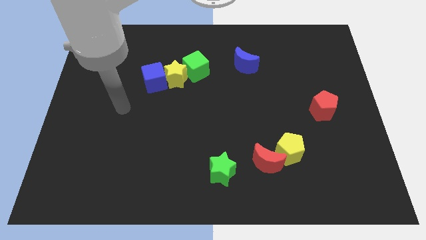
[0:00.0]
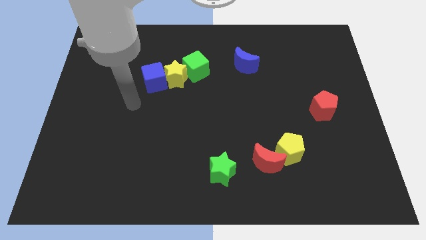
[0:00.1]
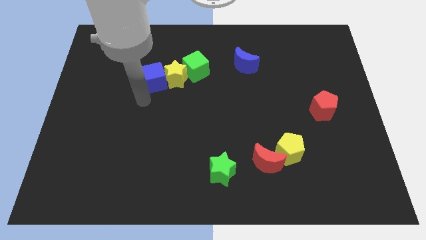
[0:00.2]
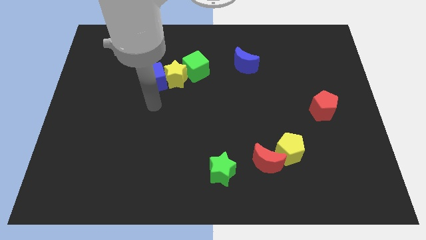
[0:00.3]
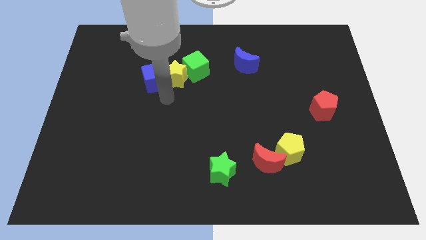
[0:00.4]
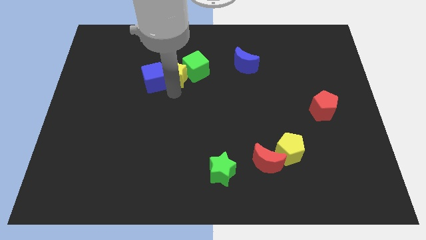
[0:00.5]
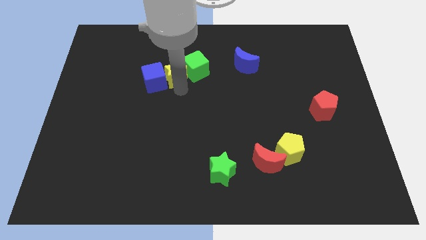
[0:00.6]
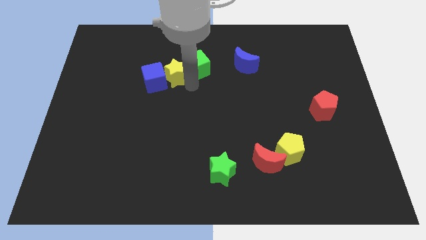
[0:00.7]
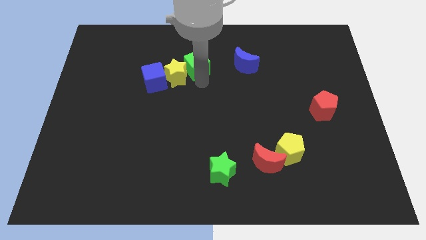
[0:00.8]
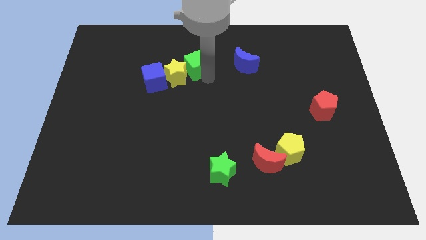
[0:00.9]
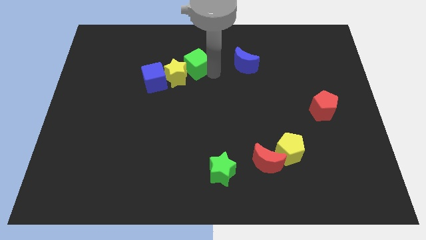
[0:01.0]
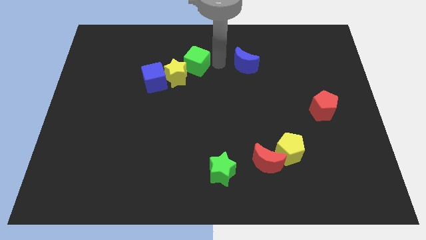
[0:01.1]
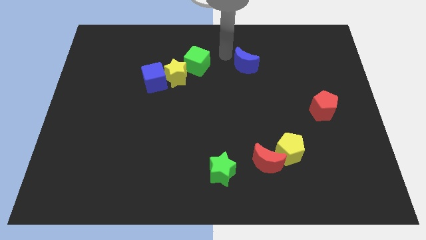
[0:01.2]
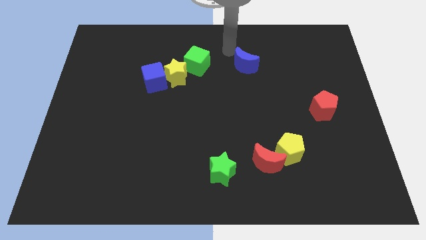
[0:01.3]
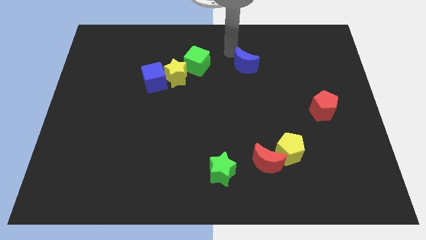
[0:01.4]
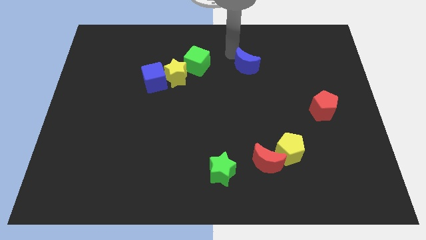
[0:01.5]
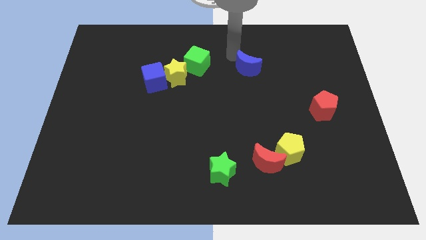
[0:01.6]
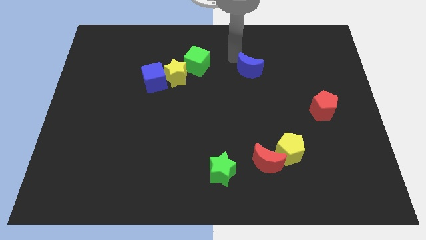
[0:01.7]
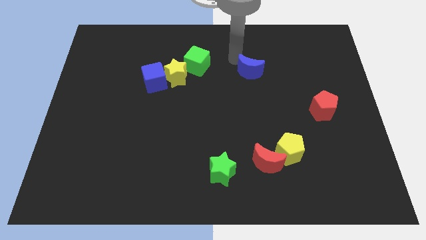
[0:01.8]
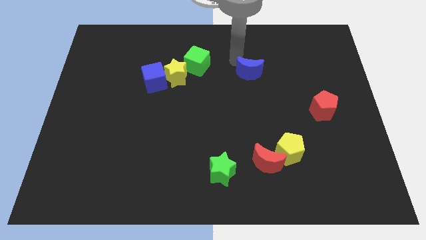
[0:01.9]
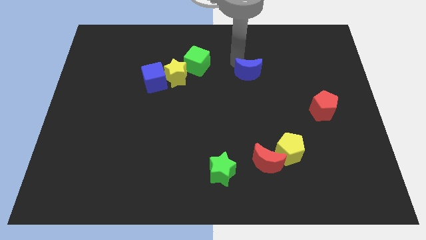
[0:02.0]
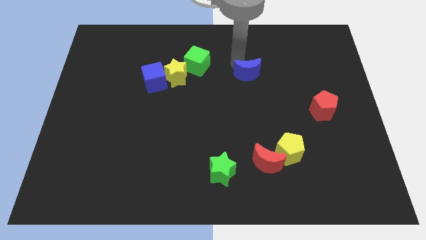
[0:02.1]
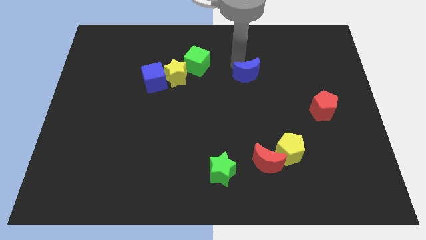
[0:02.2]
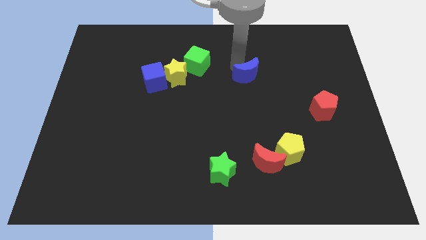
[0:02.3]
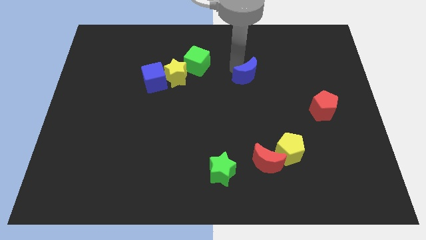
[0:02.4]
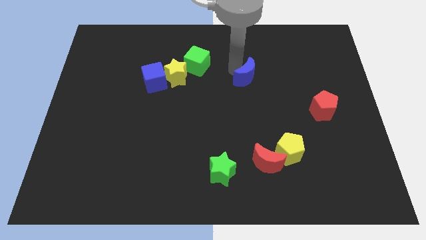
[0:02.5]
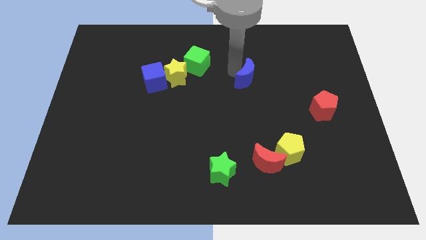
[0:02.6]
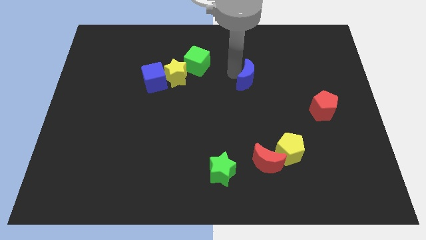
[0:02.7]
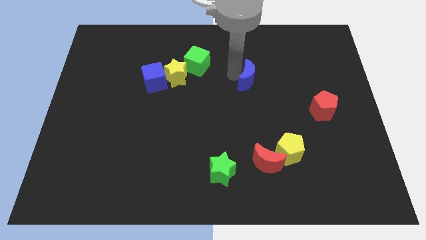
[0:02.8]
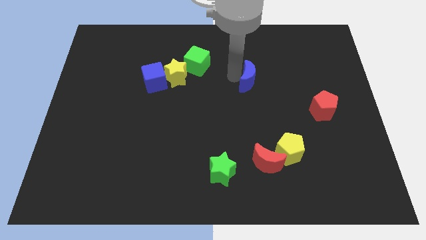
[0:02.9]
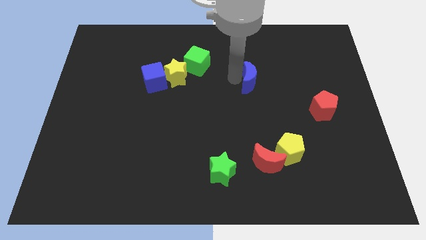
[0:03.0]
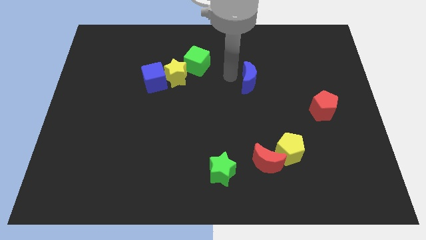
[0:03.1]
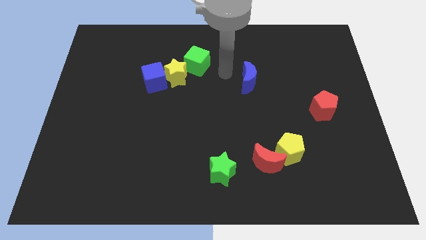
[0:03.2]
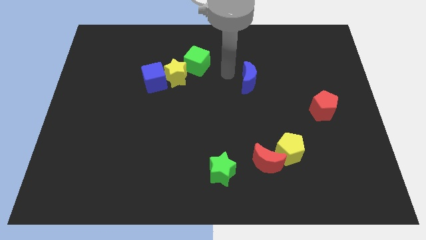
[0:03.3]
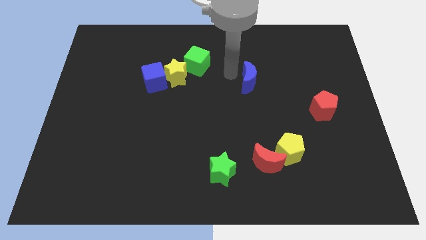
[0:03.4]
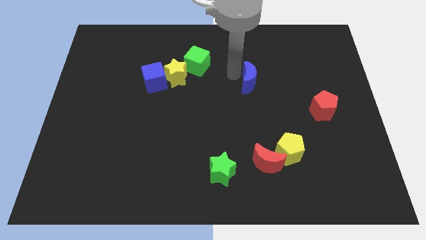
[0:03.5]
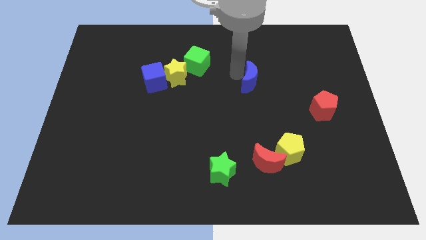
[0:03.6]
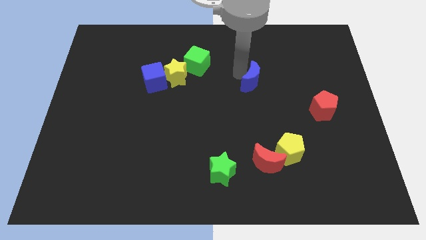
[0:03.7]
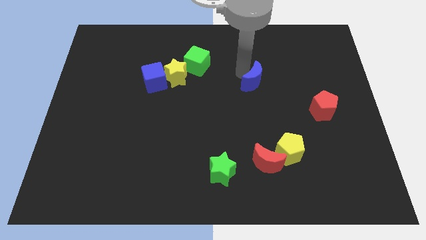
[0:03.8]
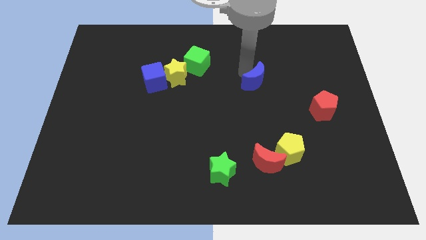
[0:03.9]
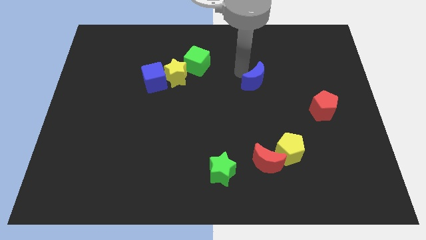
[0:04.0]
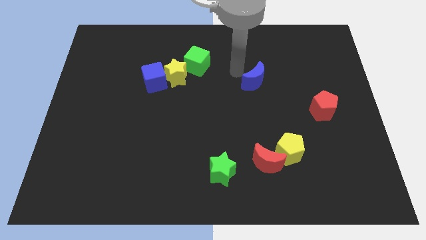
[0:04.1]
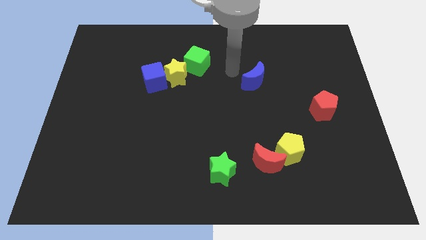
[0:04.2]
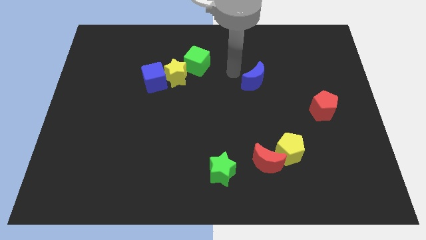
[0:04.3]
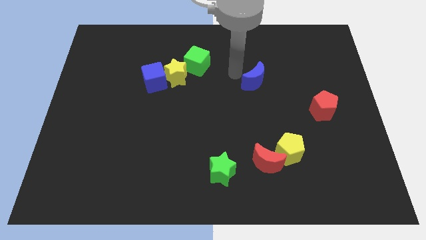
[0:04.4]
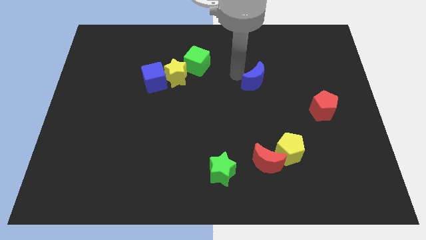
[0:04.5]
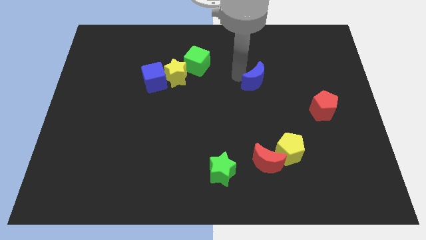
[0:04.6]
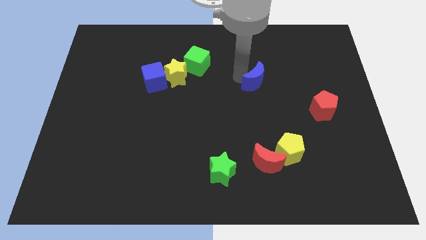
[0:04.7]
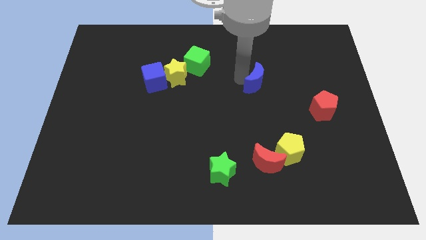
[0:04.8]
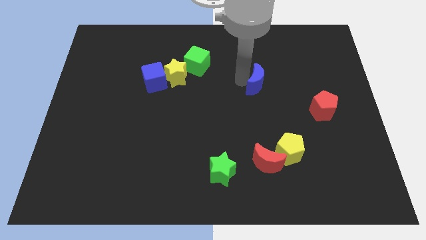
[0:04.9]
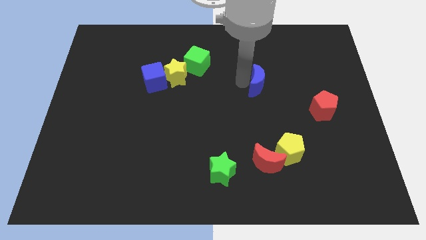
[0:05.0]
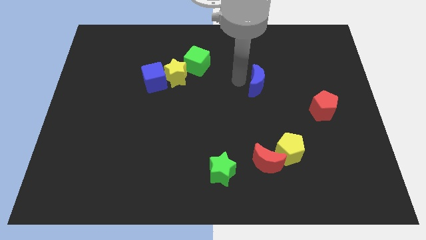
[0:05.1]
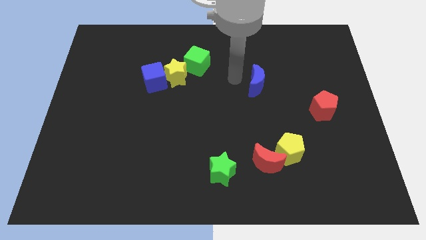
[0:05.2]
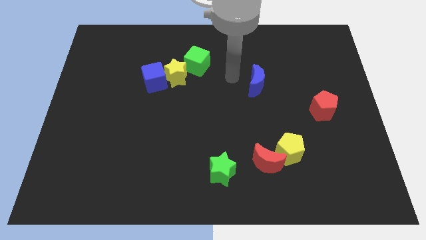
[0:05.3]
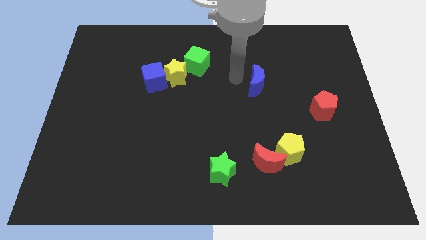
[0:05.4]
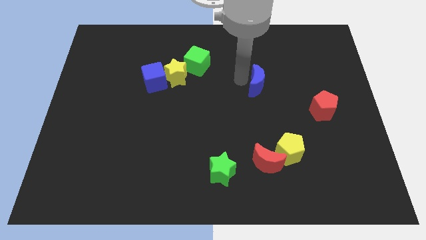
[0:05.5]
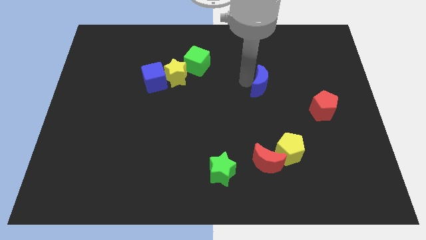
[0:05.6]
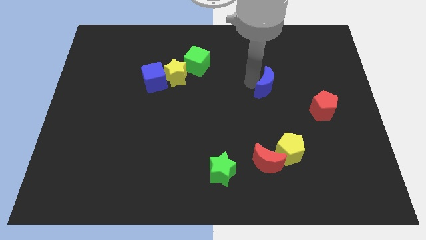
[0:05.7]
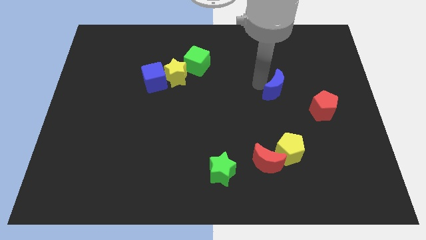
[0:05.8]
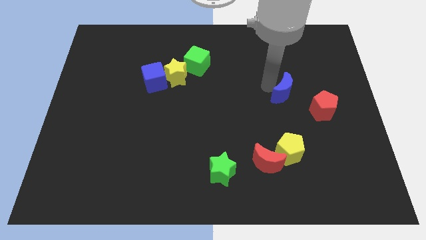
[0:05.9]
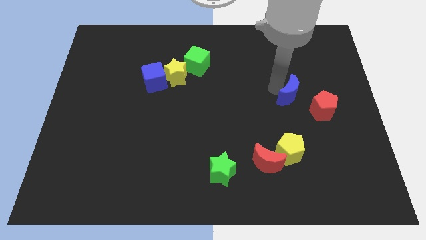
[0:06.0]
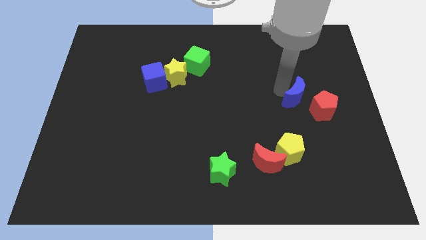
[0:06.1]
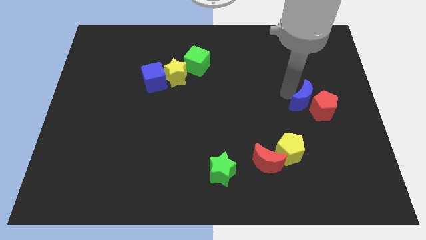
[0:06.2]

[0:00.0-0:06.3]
put the blue moon towards the red pentagon
